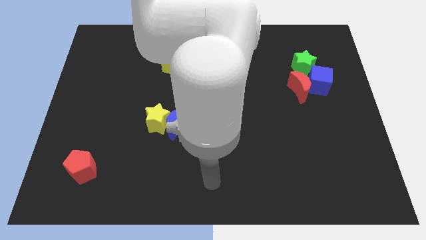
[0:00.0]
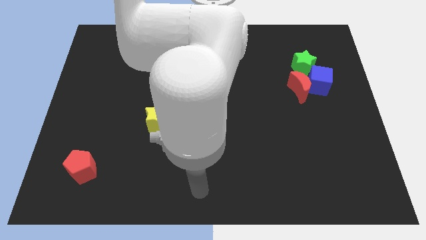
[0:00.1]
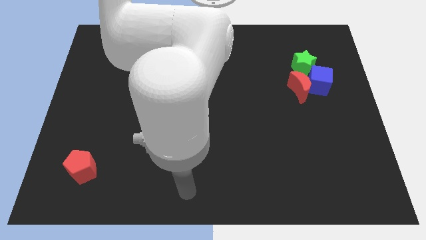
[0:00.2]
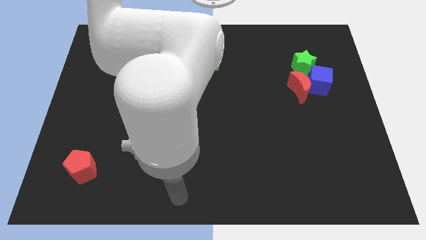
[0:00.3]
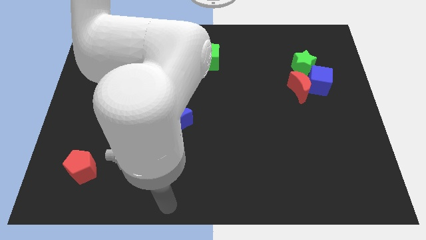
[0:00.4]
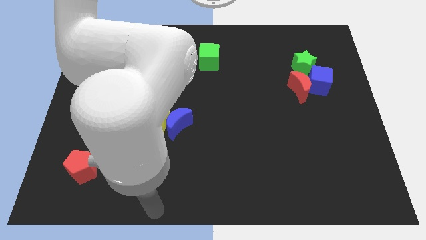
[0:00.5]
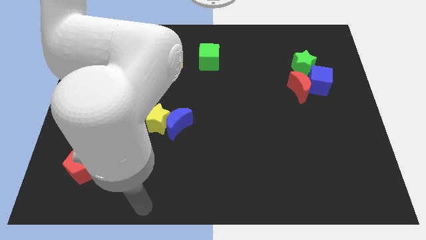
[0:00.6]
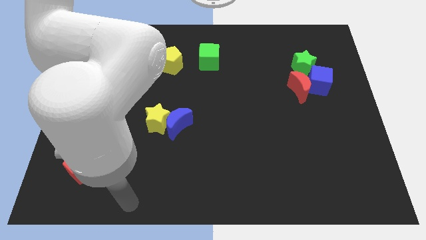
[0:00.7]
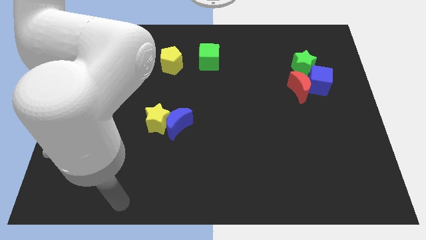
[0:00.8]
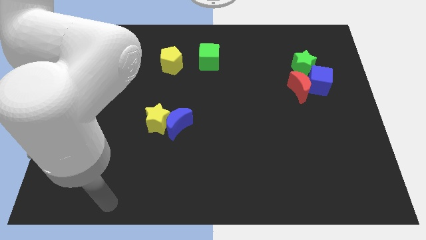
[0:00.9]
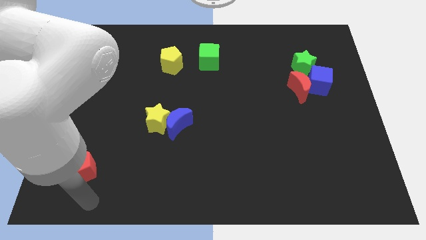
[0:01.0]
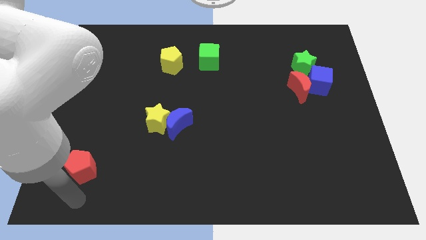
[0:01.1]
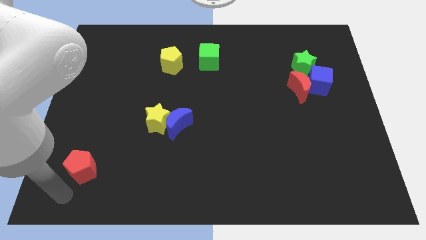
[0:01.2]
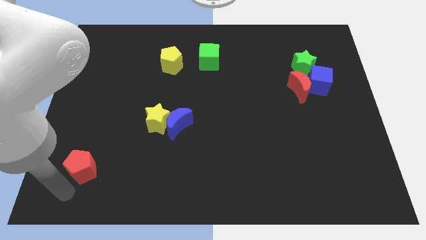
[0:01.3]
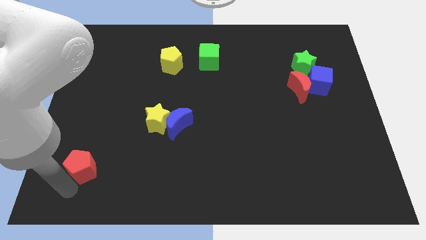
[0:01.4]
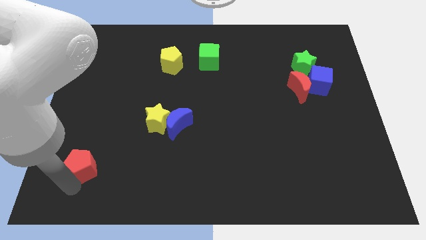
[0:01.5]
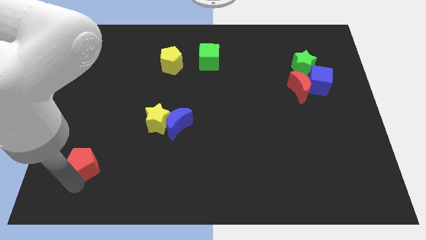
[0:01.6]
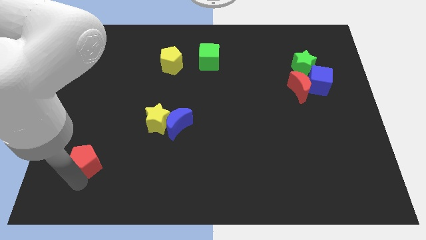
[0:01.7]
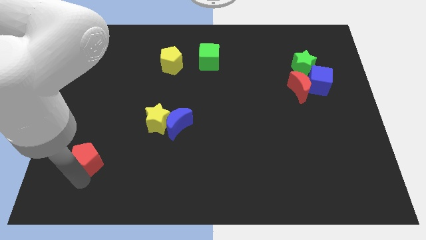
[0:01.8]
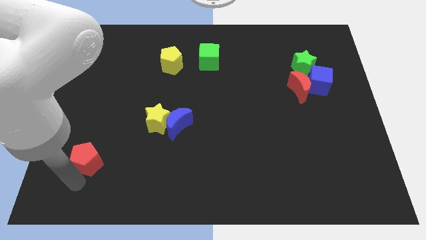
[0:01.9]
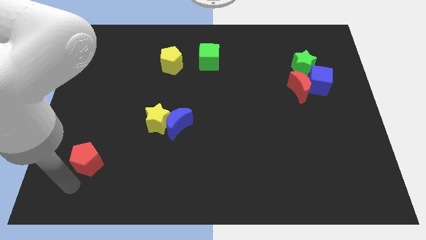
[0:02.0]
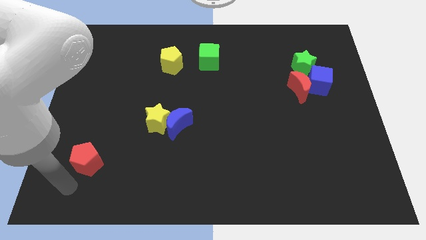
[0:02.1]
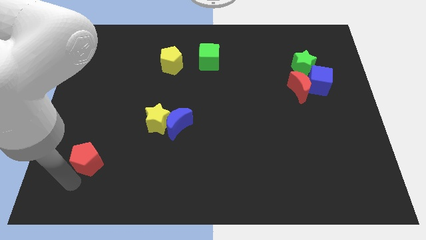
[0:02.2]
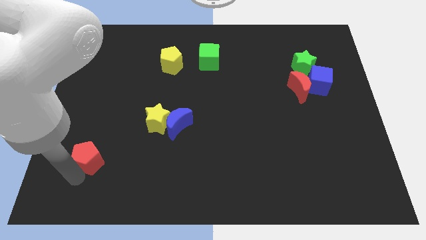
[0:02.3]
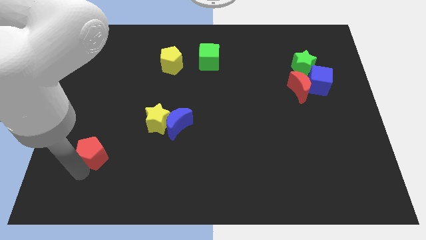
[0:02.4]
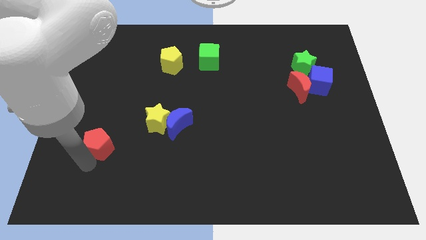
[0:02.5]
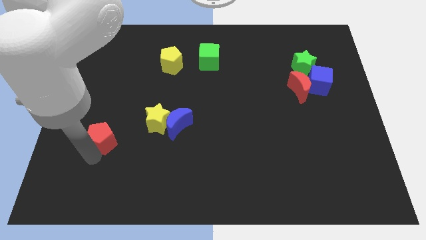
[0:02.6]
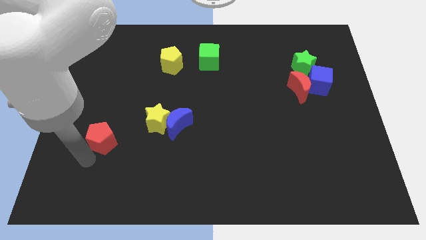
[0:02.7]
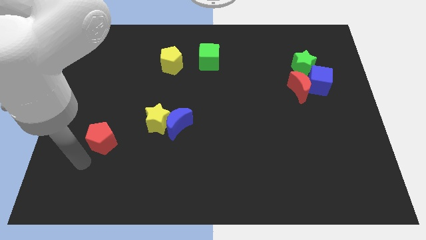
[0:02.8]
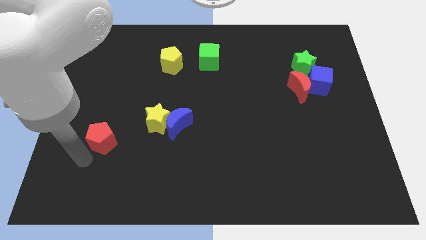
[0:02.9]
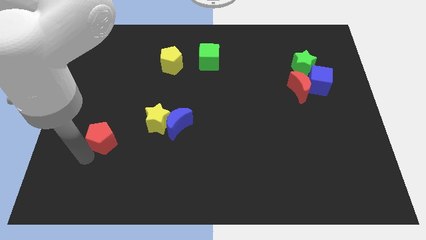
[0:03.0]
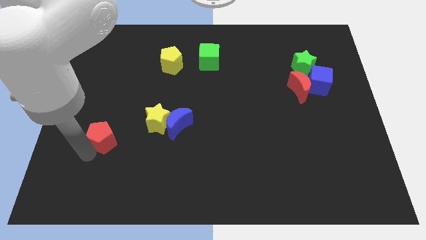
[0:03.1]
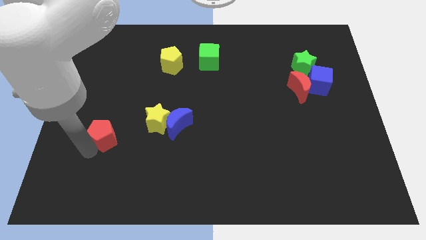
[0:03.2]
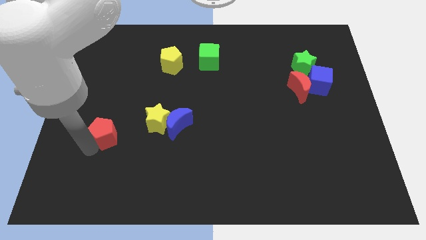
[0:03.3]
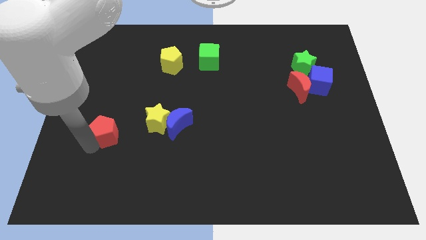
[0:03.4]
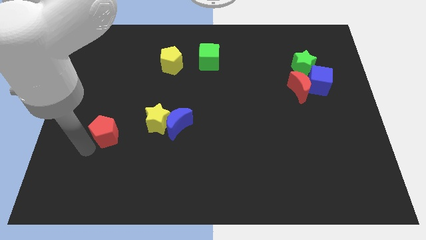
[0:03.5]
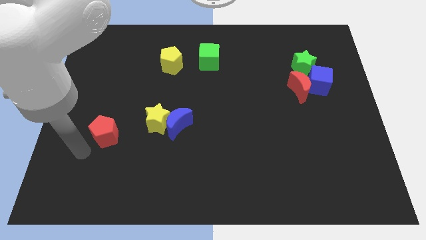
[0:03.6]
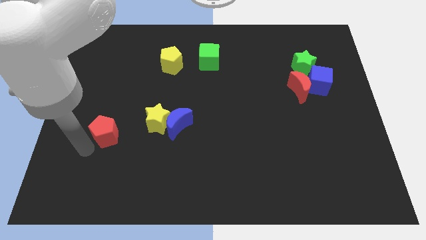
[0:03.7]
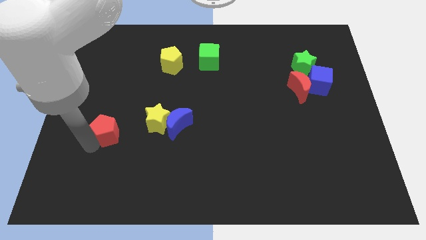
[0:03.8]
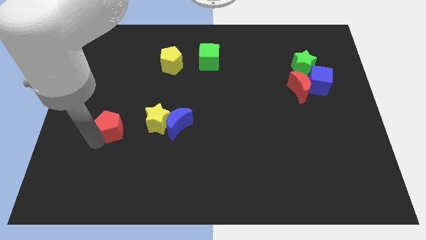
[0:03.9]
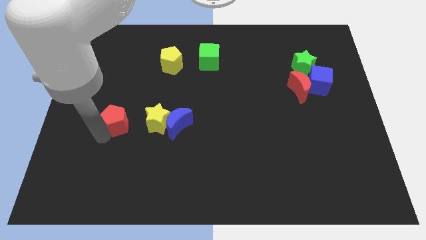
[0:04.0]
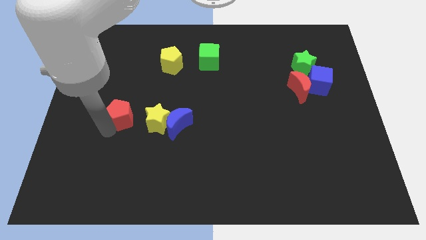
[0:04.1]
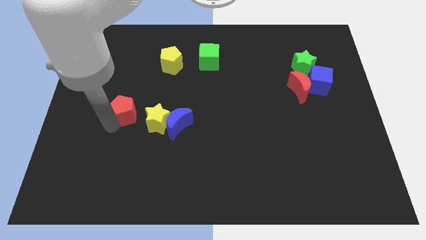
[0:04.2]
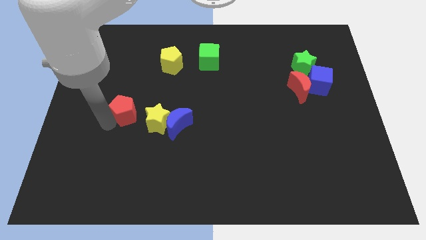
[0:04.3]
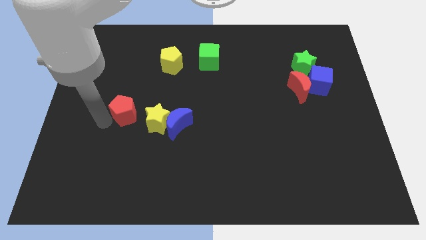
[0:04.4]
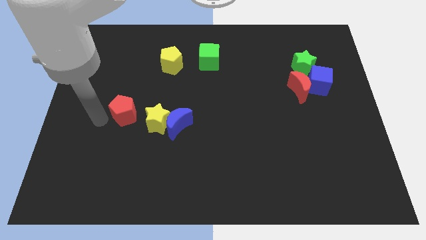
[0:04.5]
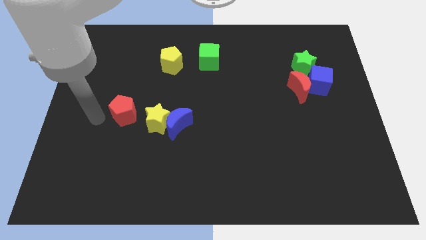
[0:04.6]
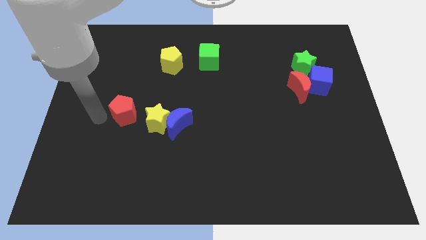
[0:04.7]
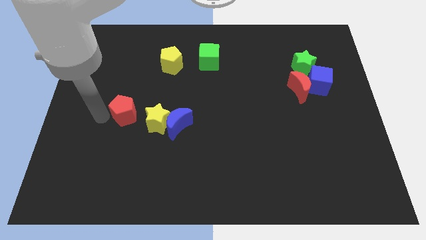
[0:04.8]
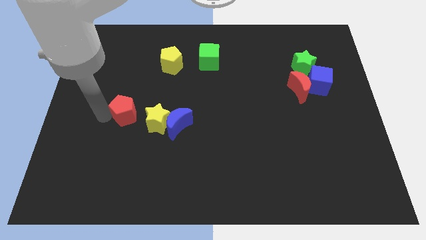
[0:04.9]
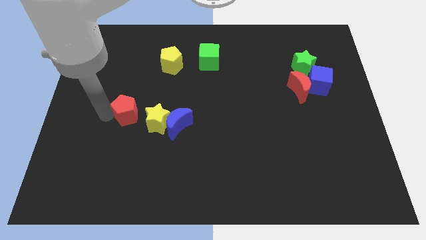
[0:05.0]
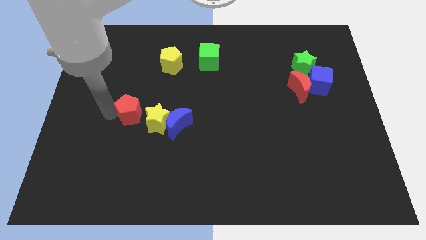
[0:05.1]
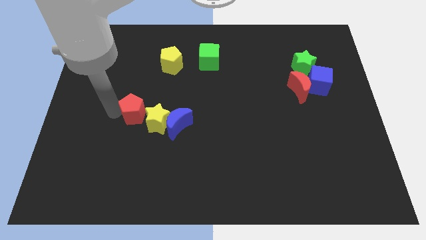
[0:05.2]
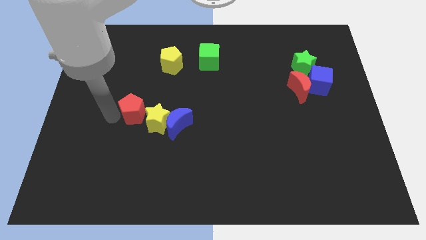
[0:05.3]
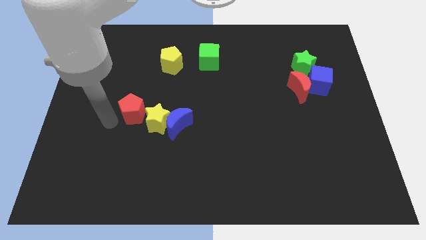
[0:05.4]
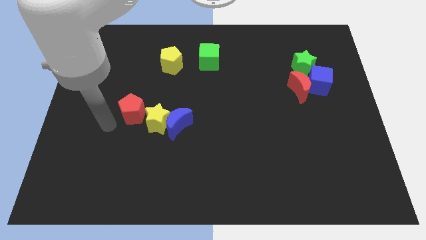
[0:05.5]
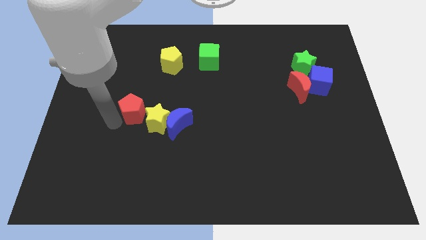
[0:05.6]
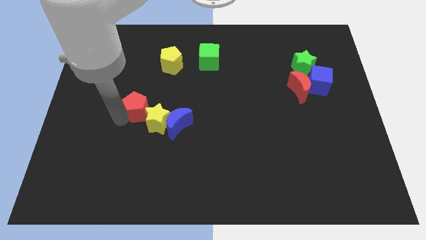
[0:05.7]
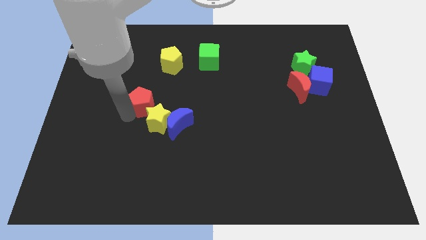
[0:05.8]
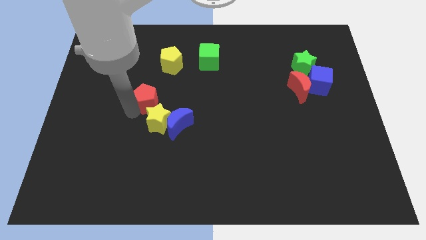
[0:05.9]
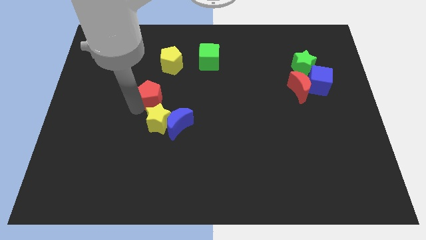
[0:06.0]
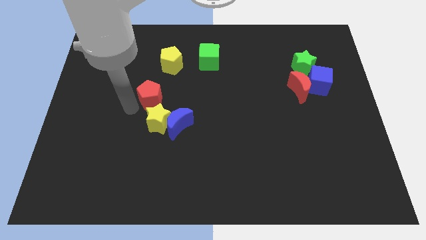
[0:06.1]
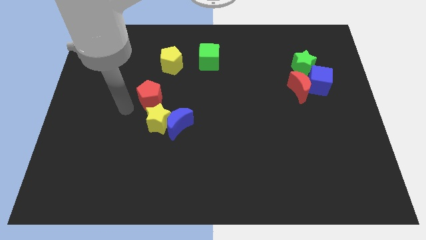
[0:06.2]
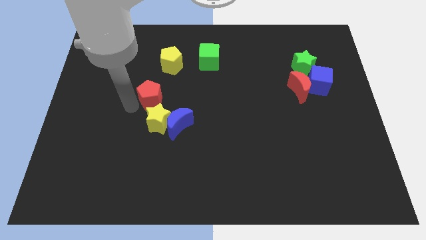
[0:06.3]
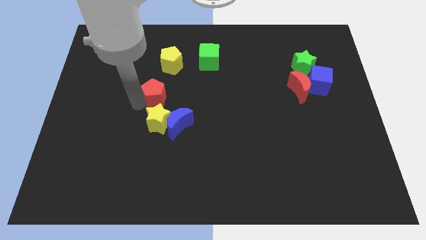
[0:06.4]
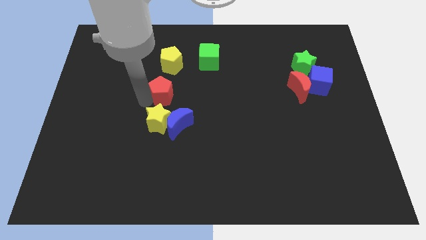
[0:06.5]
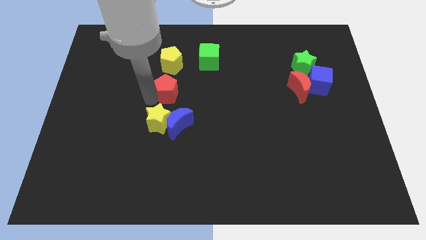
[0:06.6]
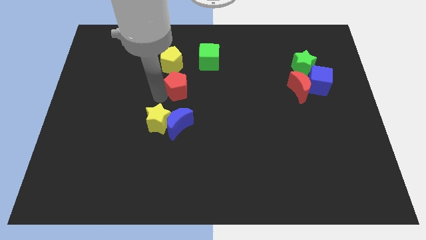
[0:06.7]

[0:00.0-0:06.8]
push the red pentagon to the bottom left side of the green cube
